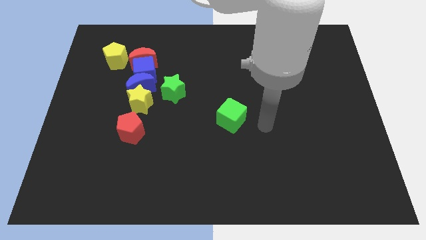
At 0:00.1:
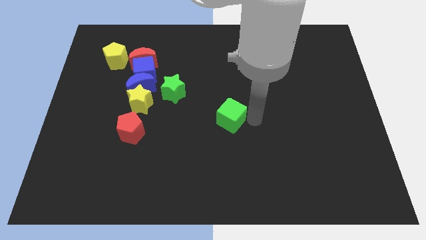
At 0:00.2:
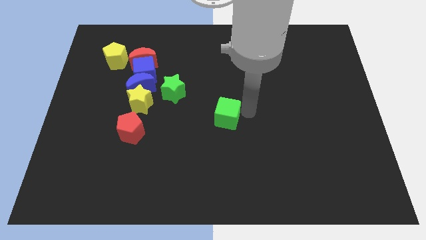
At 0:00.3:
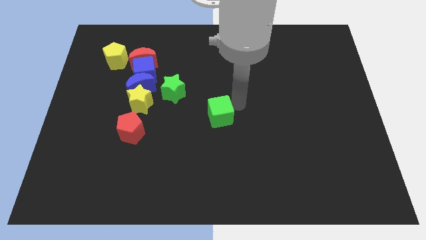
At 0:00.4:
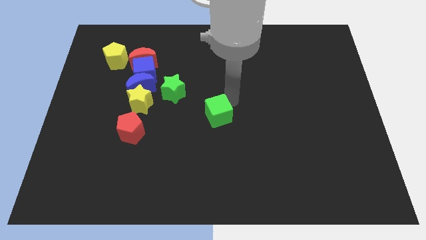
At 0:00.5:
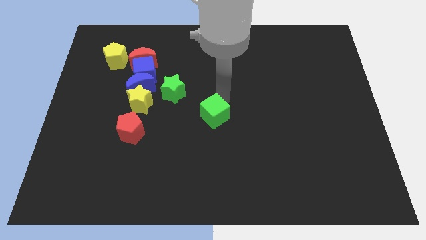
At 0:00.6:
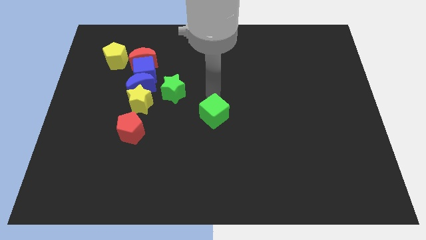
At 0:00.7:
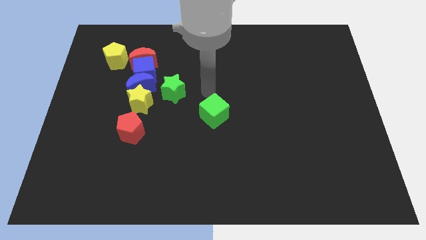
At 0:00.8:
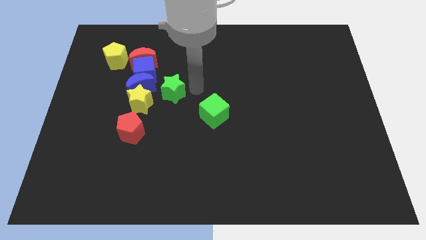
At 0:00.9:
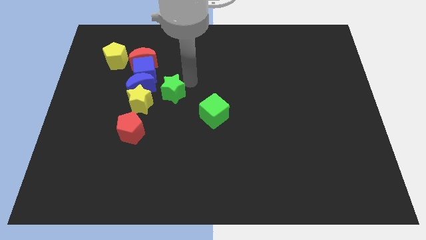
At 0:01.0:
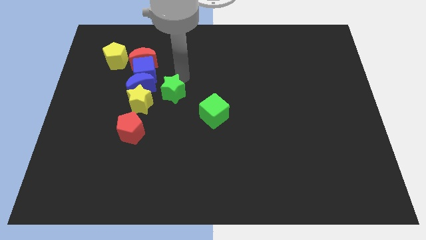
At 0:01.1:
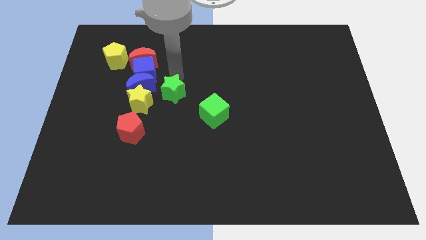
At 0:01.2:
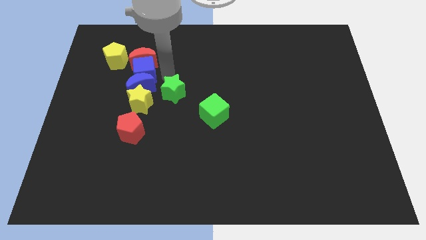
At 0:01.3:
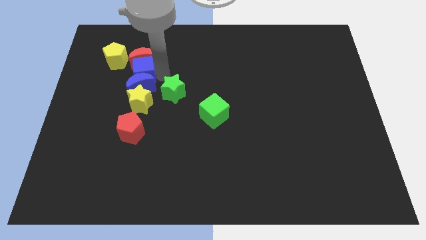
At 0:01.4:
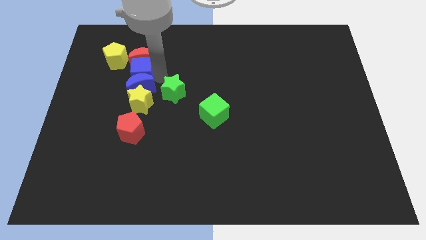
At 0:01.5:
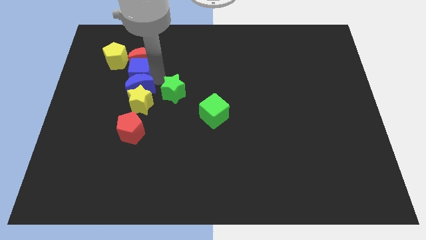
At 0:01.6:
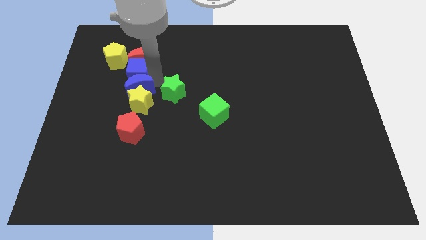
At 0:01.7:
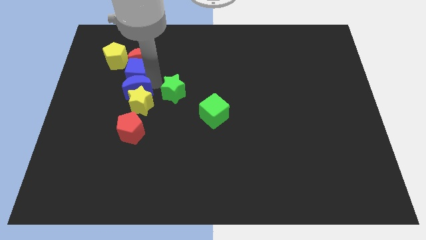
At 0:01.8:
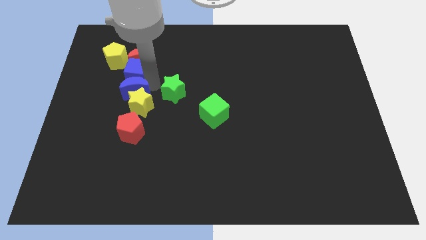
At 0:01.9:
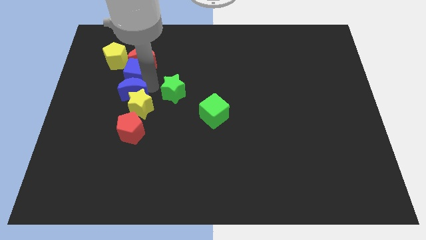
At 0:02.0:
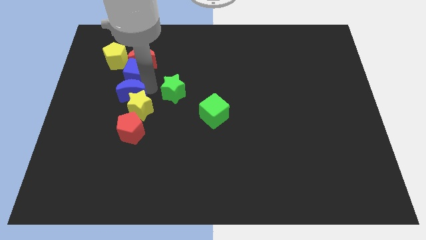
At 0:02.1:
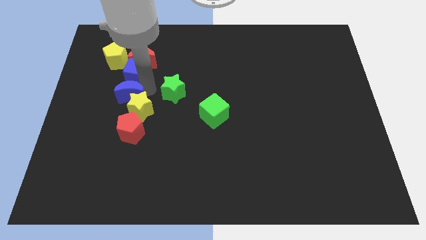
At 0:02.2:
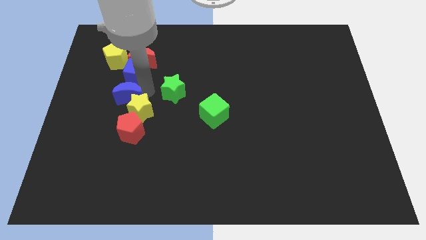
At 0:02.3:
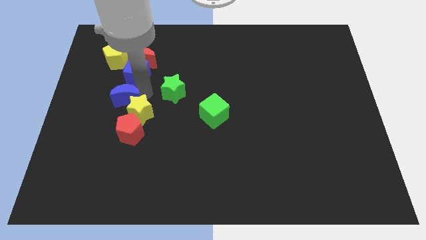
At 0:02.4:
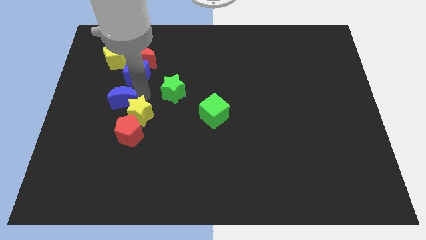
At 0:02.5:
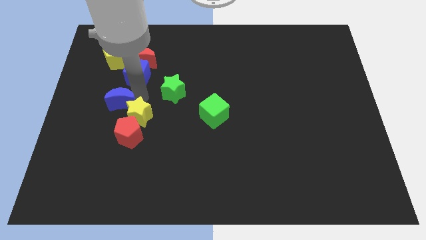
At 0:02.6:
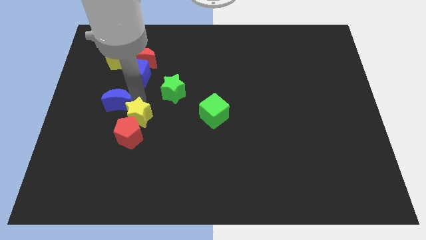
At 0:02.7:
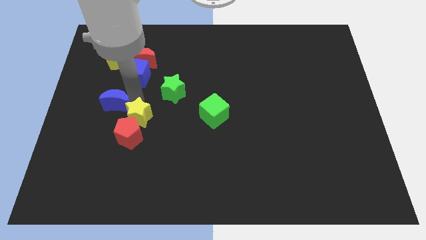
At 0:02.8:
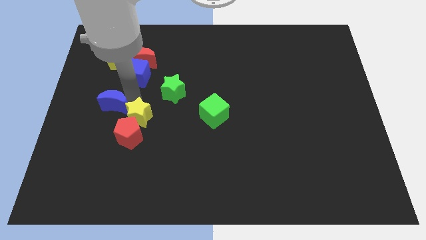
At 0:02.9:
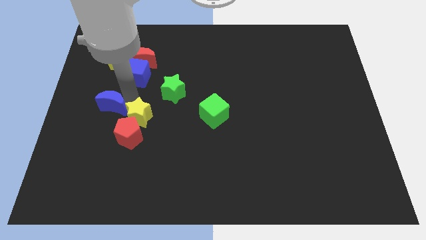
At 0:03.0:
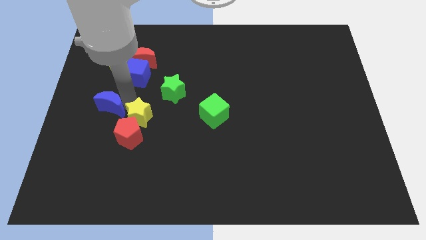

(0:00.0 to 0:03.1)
pull the blue moon apart from the group of blocks

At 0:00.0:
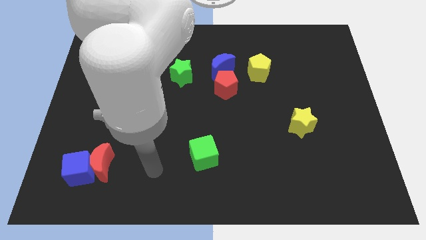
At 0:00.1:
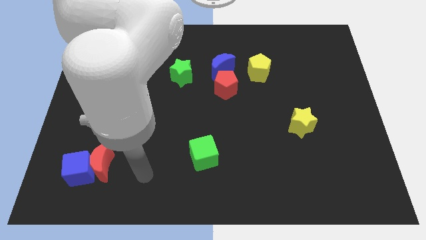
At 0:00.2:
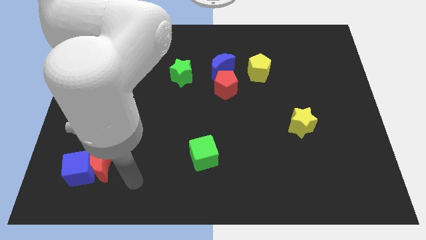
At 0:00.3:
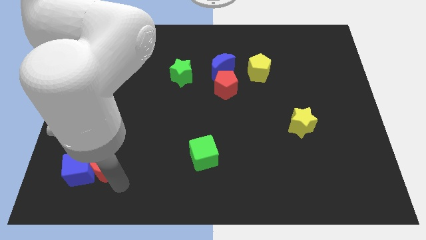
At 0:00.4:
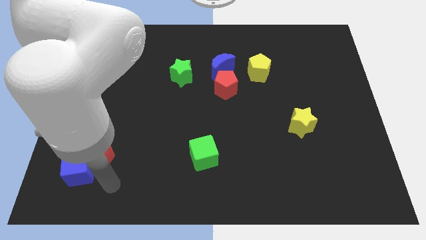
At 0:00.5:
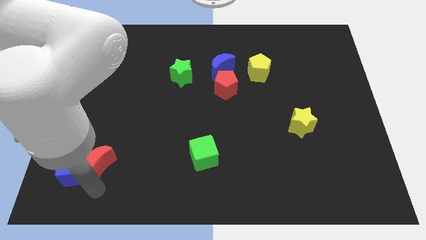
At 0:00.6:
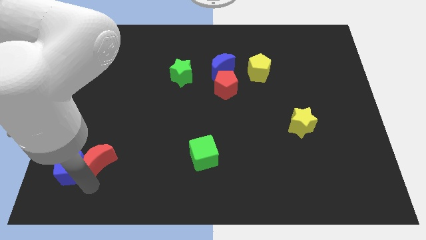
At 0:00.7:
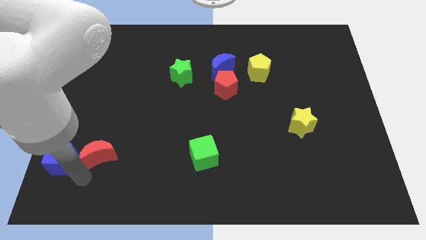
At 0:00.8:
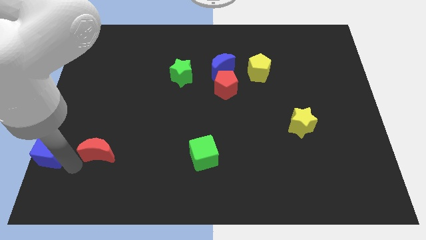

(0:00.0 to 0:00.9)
move the red moon away from the blue cube

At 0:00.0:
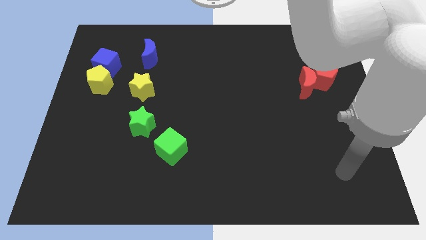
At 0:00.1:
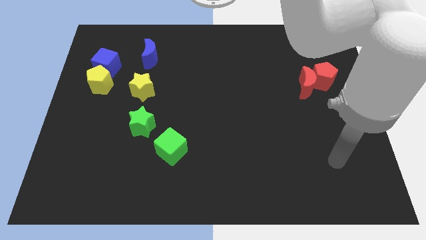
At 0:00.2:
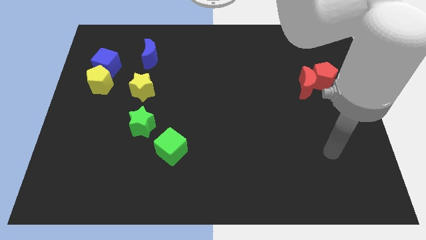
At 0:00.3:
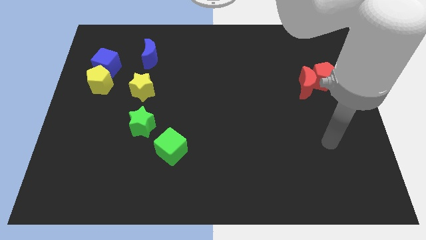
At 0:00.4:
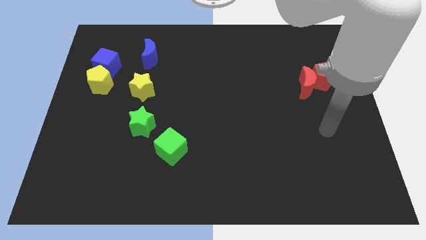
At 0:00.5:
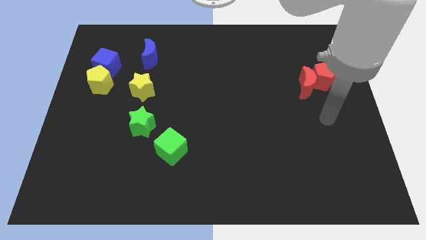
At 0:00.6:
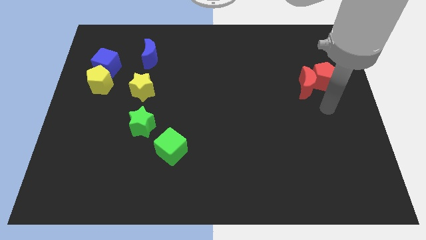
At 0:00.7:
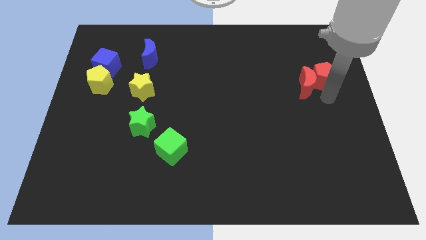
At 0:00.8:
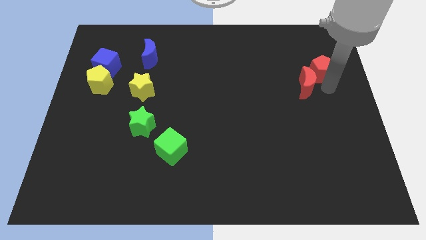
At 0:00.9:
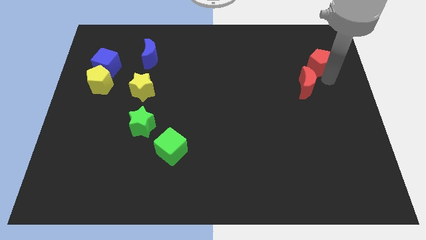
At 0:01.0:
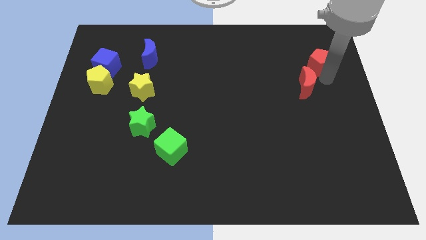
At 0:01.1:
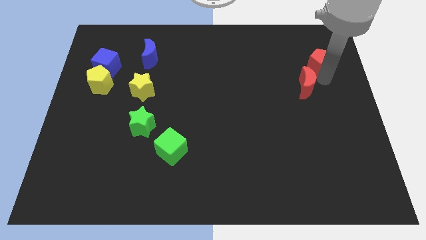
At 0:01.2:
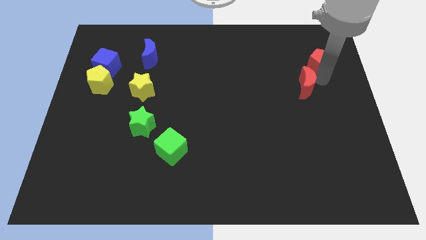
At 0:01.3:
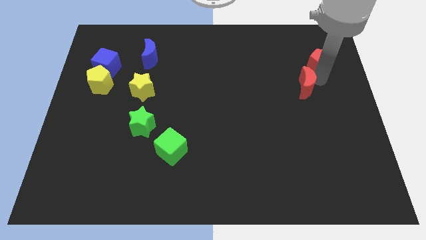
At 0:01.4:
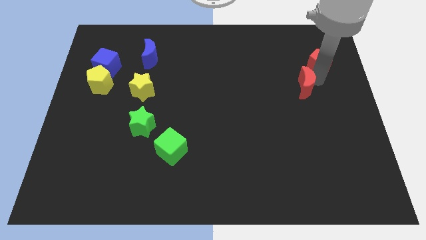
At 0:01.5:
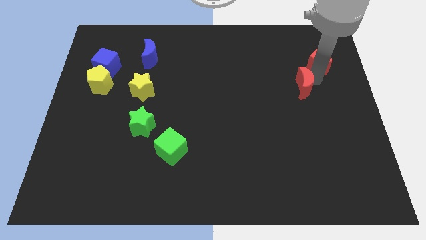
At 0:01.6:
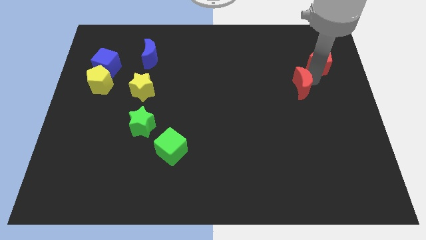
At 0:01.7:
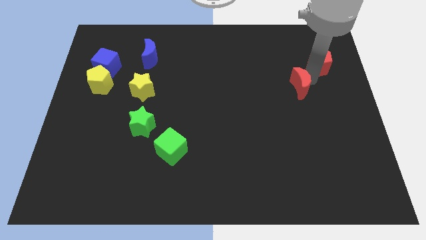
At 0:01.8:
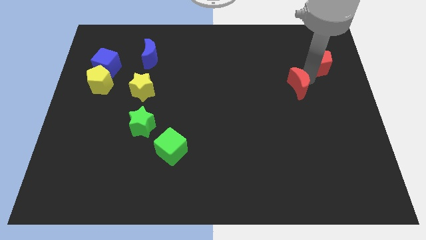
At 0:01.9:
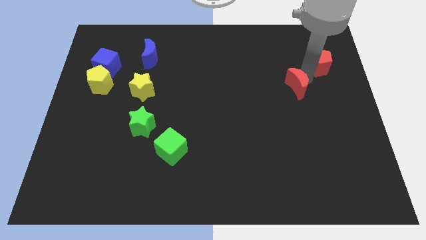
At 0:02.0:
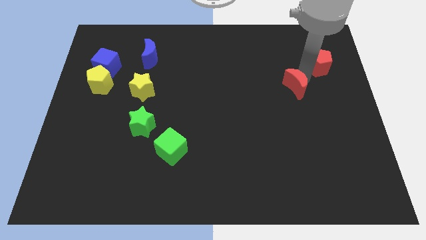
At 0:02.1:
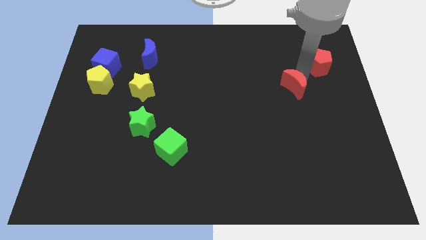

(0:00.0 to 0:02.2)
move the red moon away from the red pentagon

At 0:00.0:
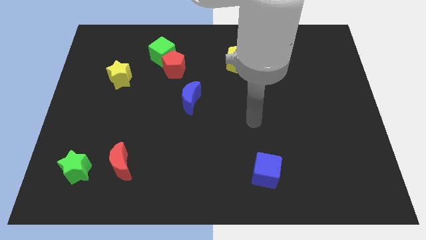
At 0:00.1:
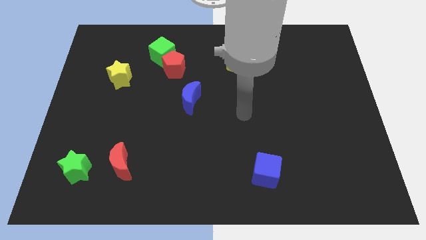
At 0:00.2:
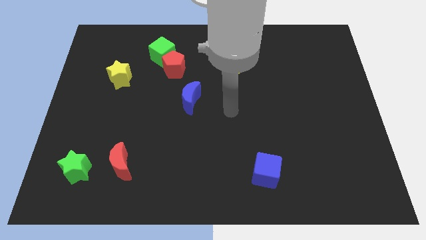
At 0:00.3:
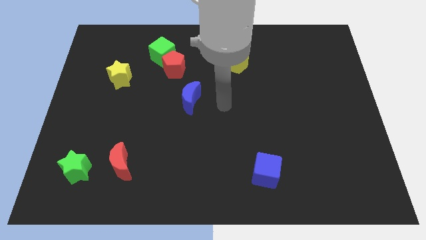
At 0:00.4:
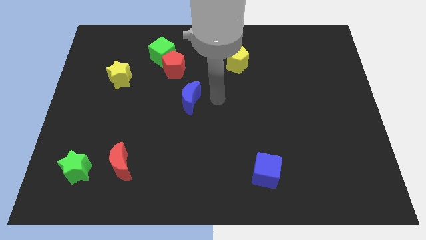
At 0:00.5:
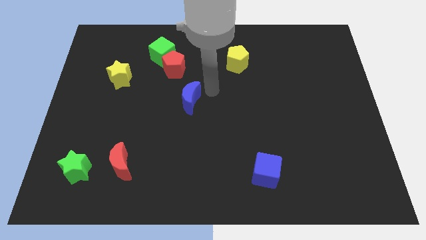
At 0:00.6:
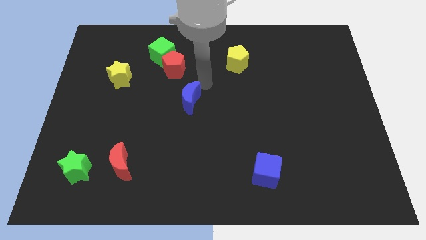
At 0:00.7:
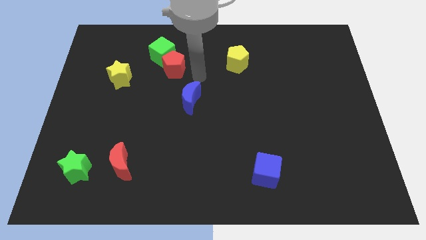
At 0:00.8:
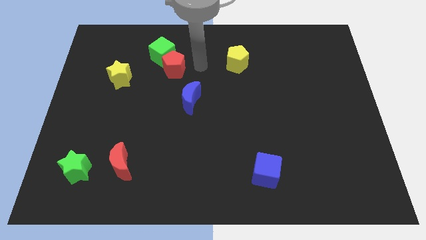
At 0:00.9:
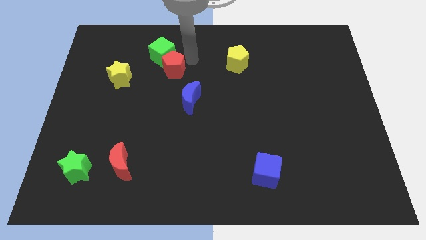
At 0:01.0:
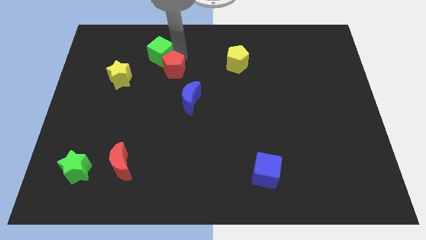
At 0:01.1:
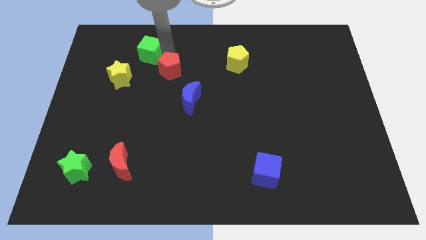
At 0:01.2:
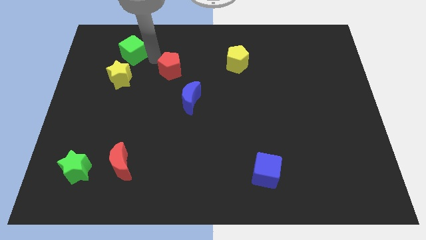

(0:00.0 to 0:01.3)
separate the red pentagon from the green cube

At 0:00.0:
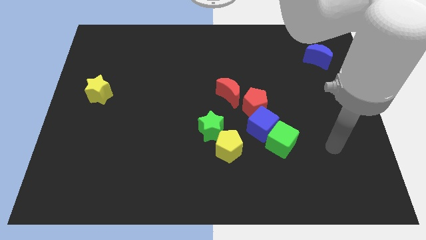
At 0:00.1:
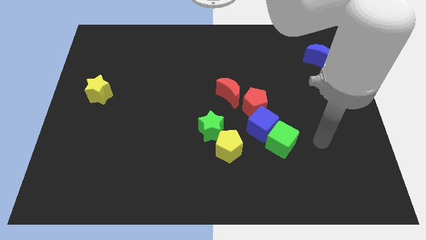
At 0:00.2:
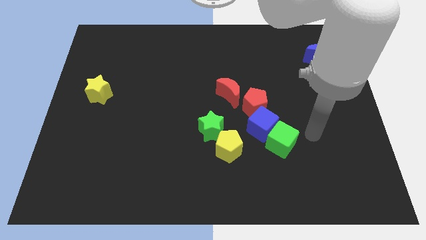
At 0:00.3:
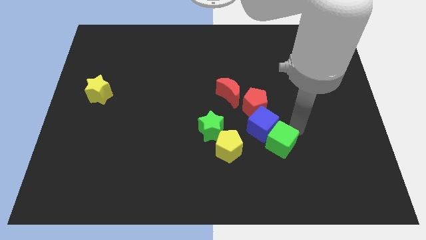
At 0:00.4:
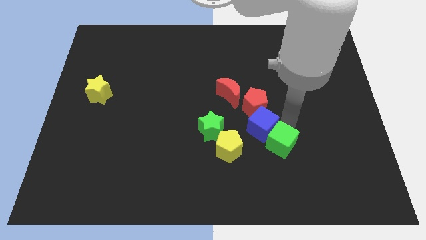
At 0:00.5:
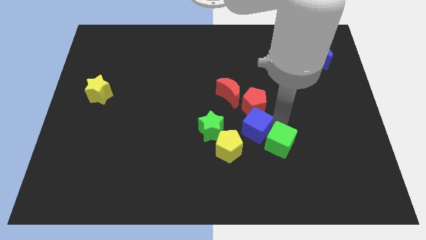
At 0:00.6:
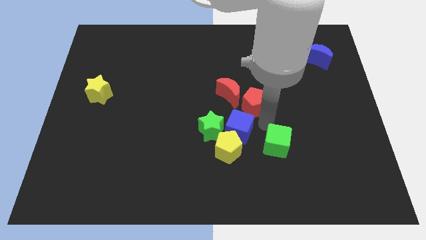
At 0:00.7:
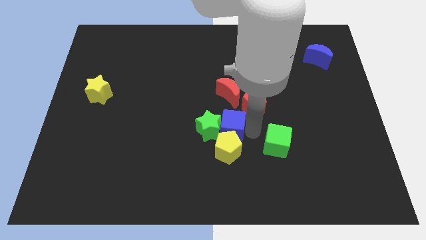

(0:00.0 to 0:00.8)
separate the green cube from the blue cube

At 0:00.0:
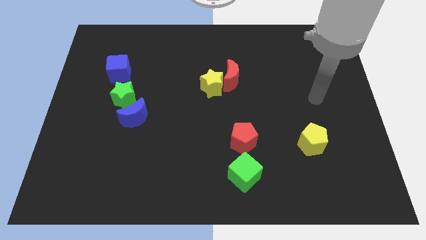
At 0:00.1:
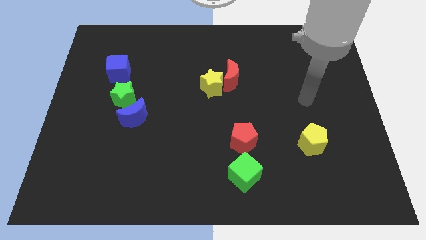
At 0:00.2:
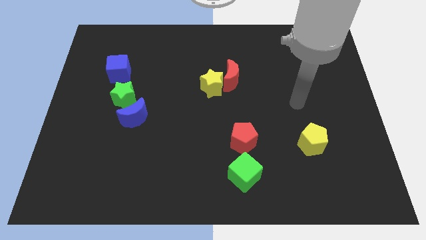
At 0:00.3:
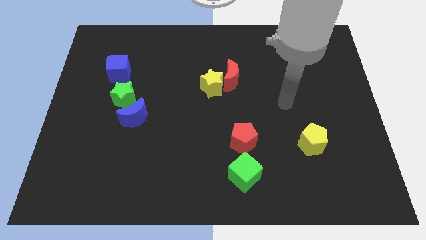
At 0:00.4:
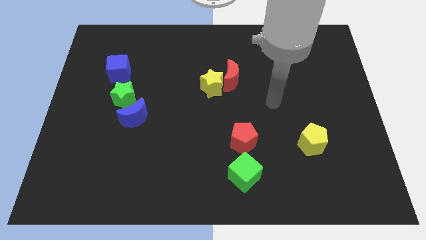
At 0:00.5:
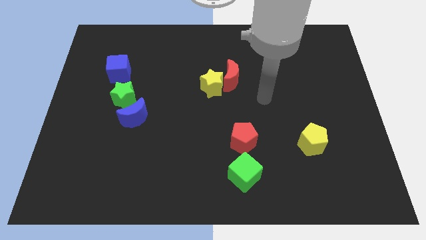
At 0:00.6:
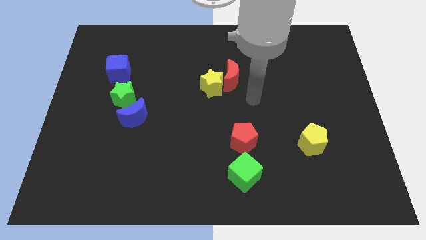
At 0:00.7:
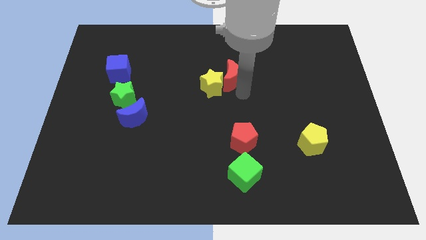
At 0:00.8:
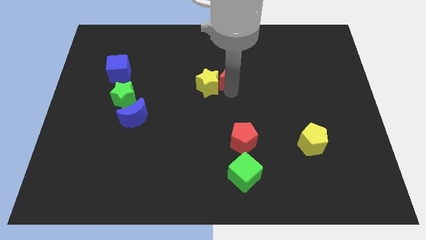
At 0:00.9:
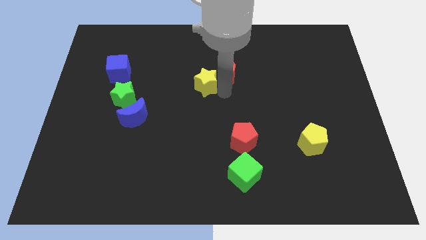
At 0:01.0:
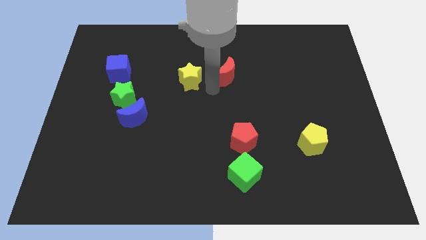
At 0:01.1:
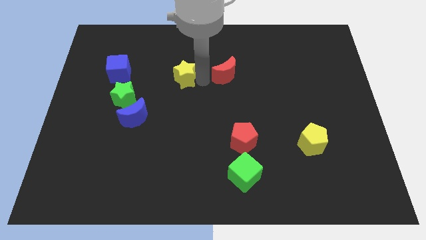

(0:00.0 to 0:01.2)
separate the red moon from the yellow star

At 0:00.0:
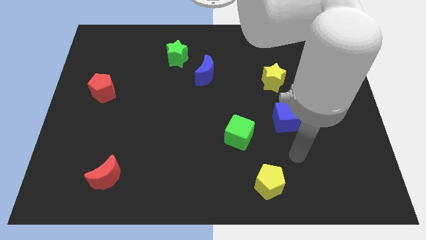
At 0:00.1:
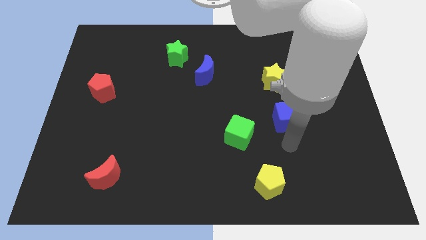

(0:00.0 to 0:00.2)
pull the blue moon apart from the green star
